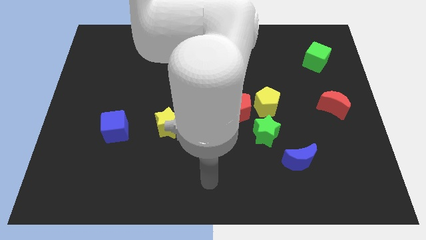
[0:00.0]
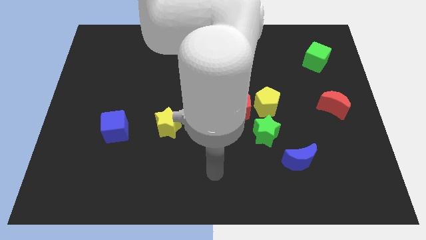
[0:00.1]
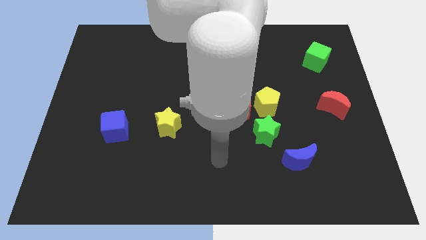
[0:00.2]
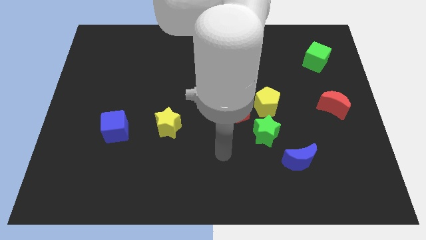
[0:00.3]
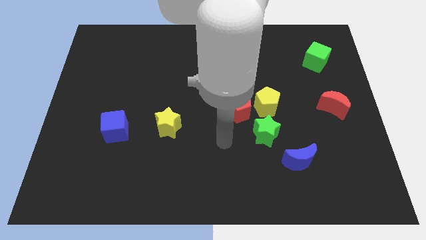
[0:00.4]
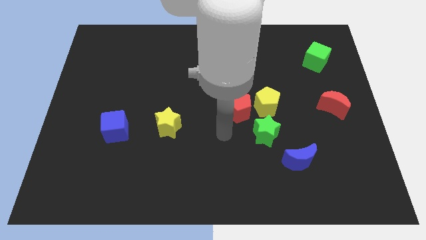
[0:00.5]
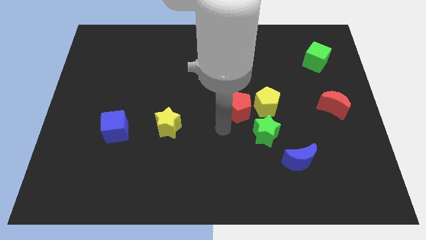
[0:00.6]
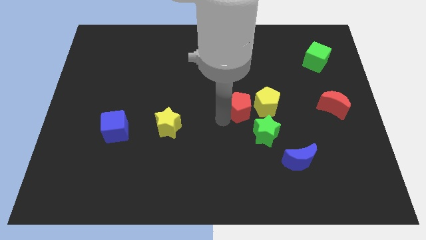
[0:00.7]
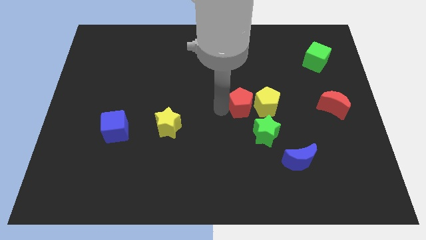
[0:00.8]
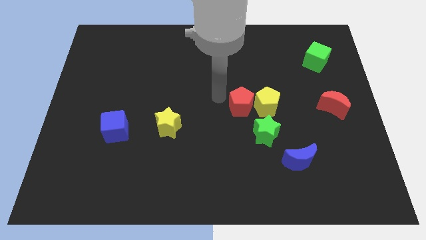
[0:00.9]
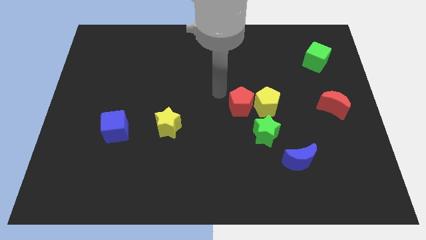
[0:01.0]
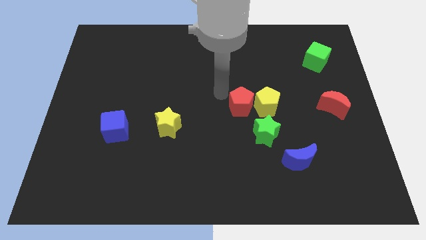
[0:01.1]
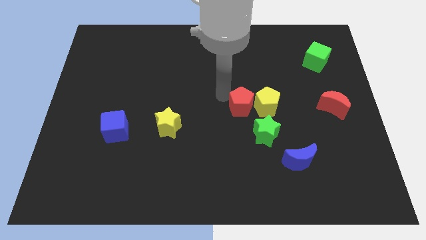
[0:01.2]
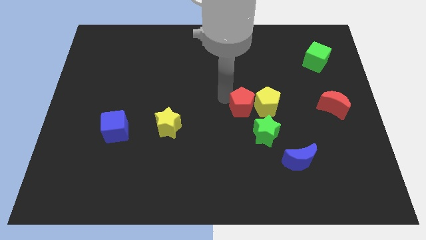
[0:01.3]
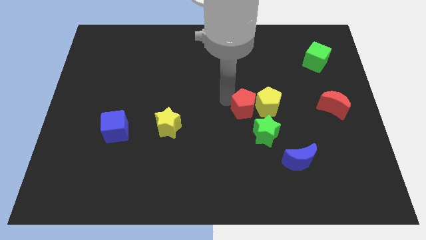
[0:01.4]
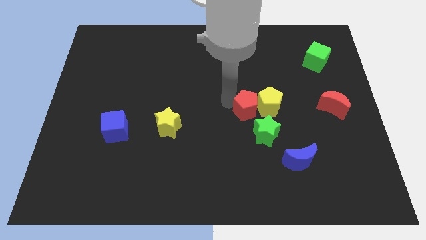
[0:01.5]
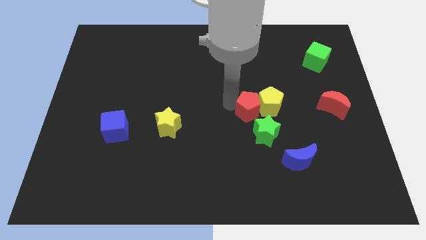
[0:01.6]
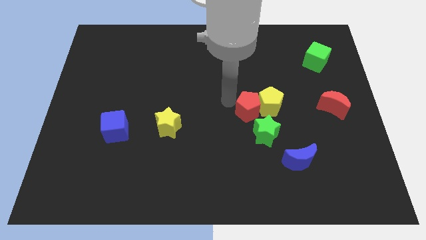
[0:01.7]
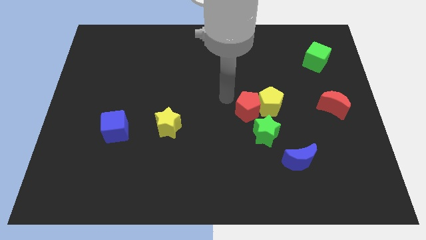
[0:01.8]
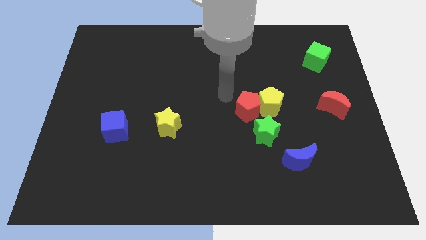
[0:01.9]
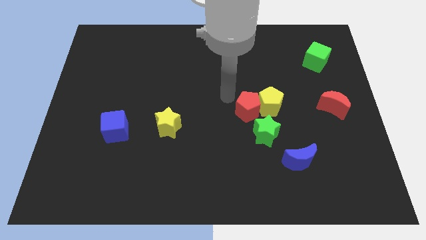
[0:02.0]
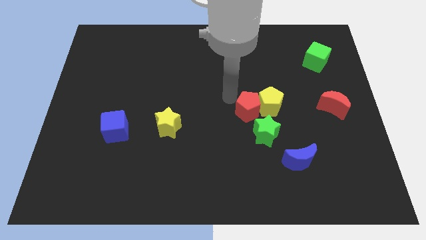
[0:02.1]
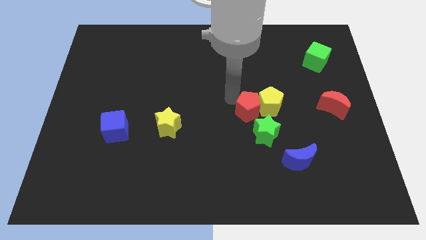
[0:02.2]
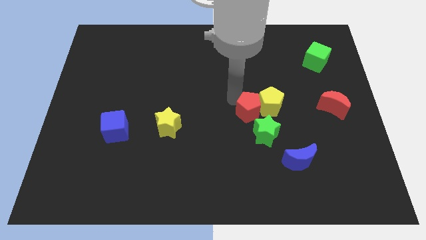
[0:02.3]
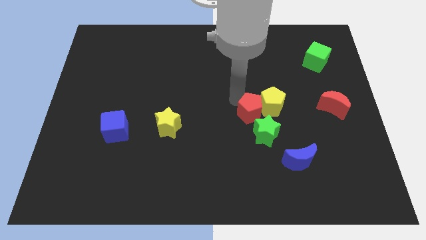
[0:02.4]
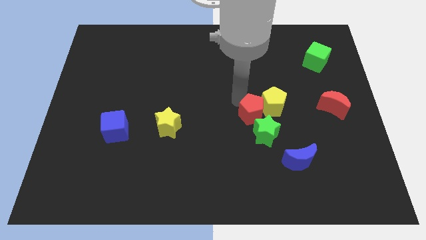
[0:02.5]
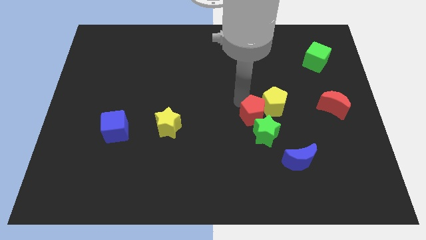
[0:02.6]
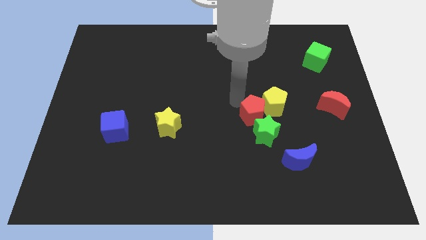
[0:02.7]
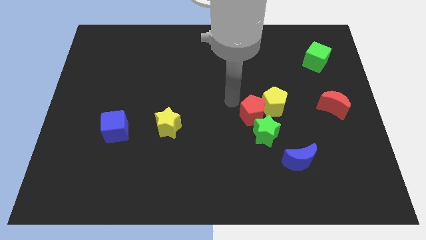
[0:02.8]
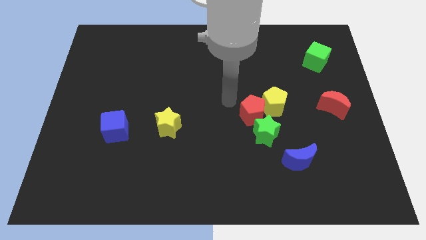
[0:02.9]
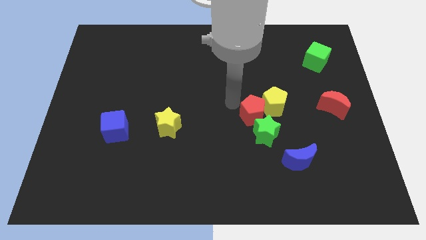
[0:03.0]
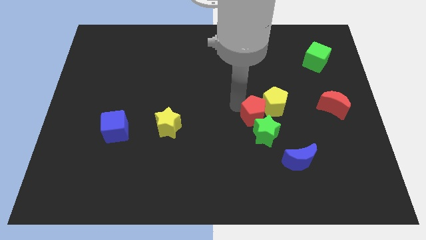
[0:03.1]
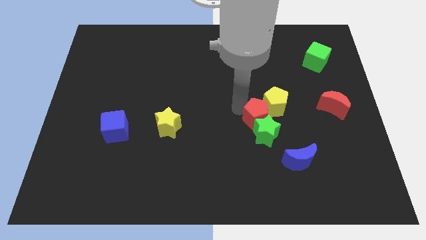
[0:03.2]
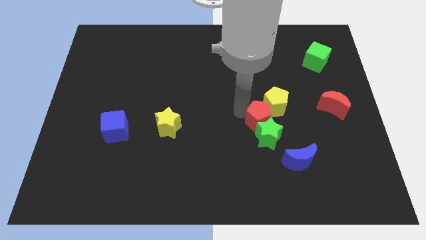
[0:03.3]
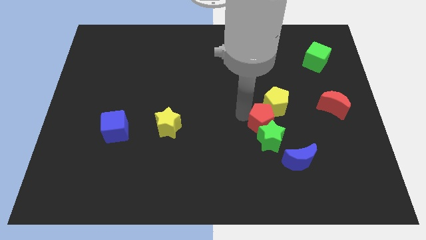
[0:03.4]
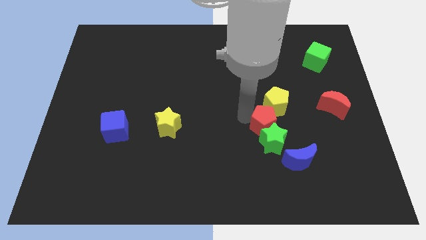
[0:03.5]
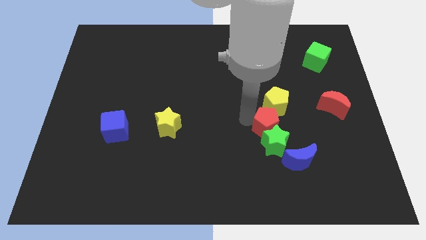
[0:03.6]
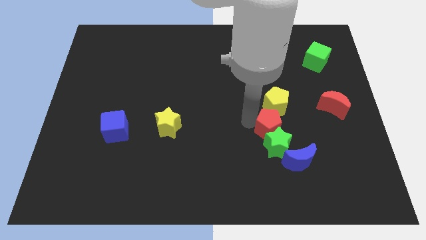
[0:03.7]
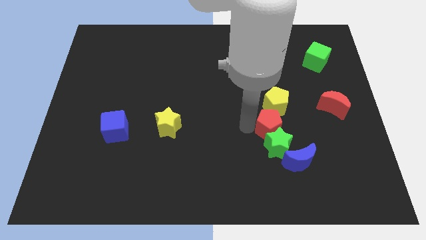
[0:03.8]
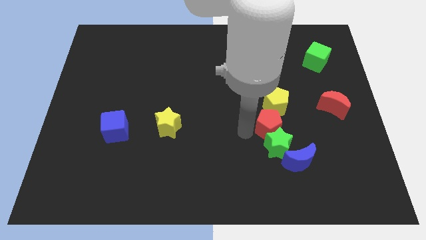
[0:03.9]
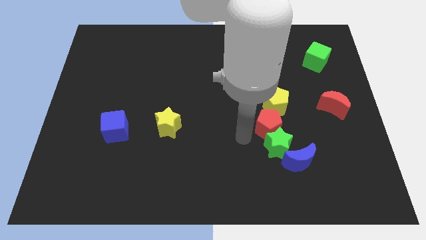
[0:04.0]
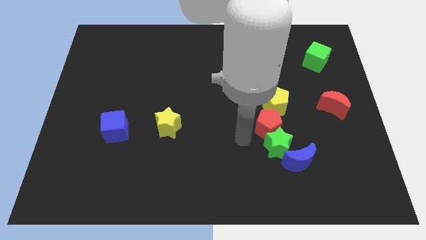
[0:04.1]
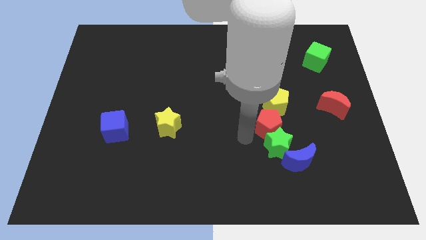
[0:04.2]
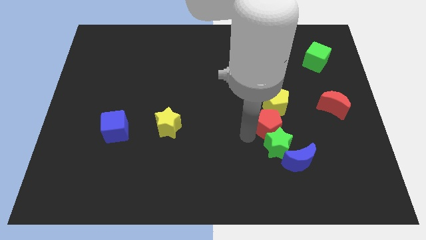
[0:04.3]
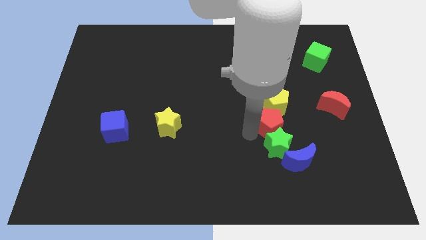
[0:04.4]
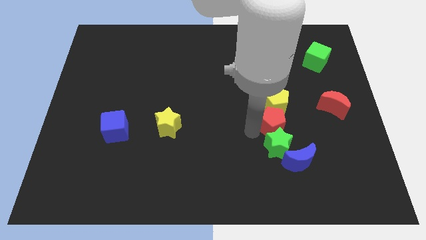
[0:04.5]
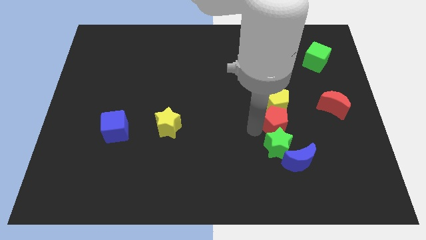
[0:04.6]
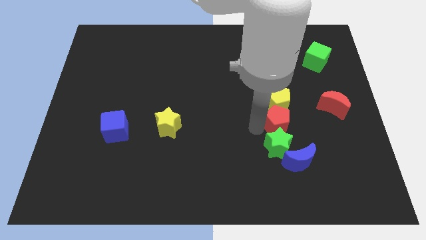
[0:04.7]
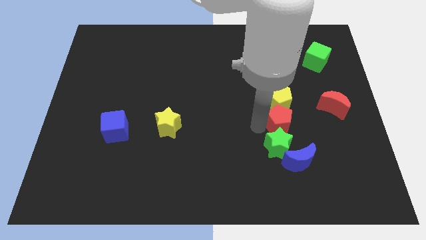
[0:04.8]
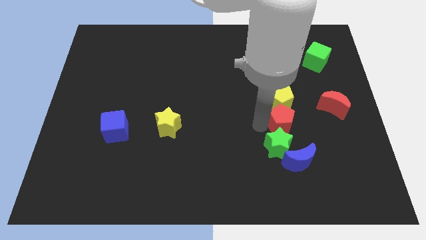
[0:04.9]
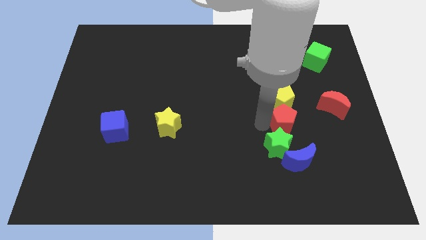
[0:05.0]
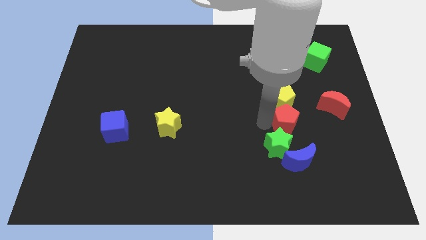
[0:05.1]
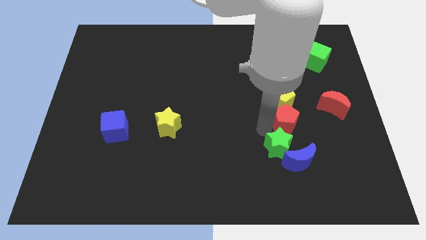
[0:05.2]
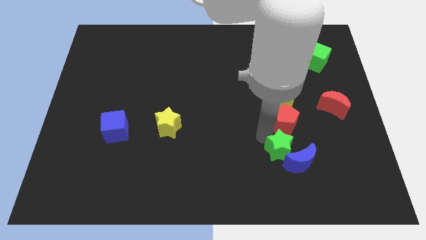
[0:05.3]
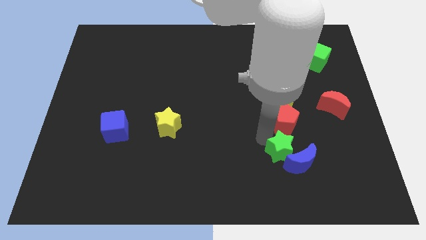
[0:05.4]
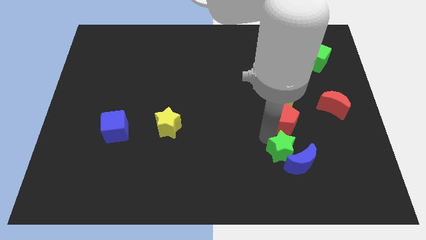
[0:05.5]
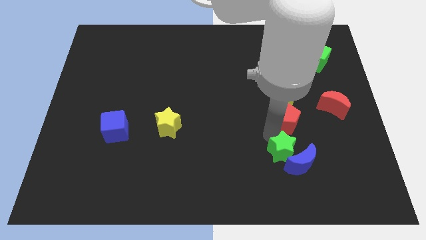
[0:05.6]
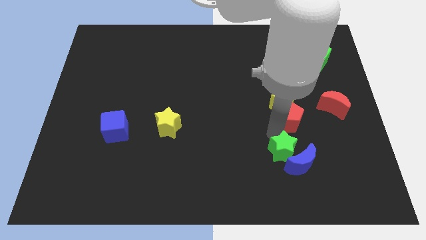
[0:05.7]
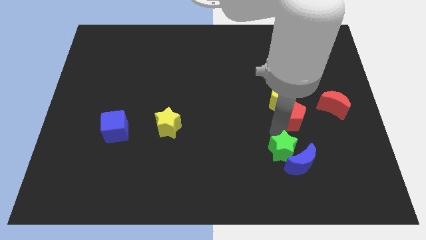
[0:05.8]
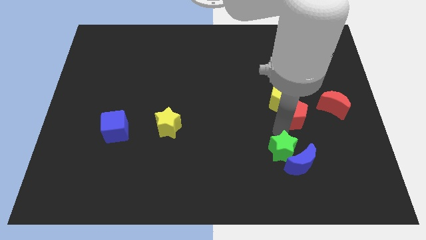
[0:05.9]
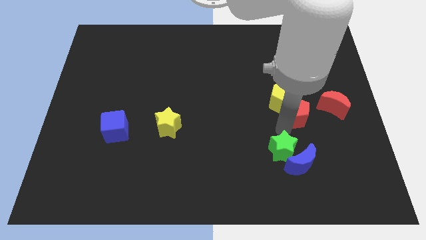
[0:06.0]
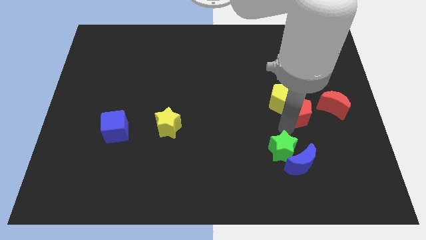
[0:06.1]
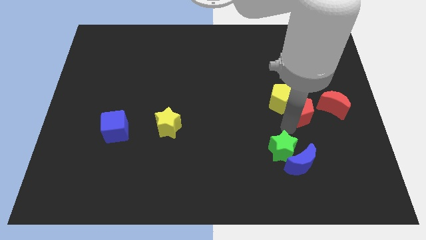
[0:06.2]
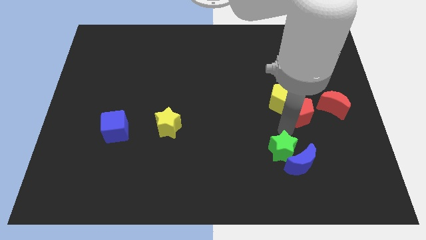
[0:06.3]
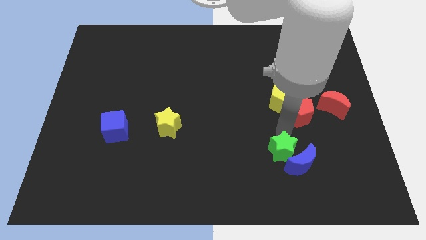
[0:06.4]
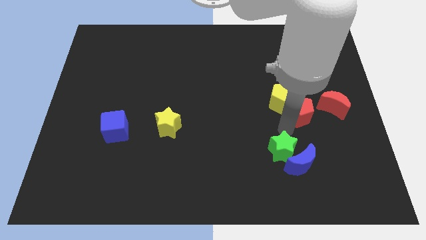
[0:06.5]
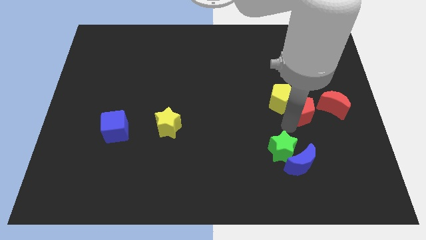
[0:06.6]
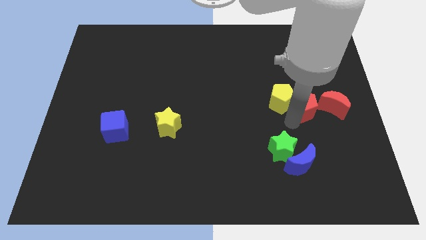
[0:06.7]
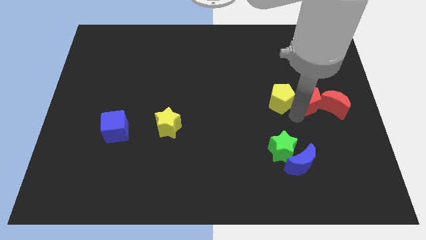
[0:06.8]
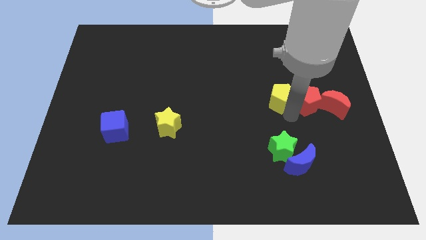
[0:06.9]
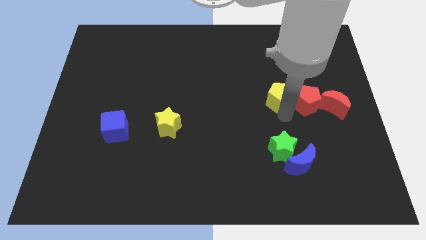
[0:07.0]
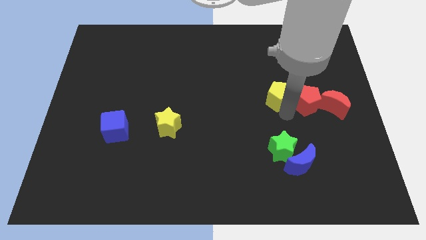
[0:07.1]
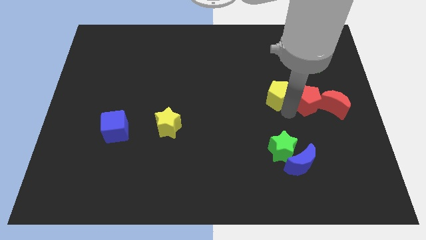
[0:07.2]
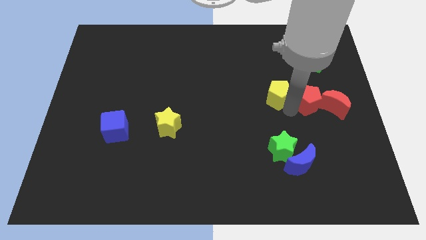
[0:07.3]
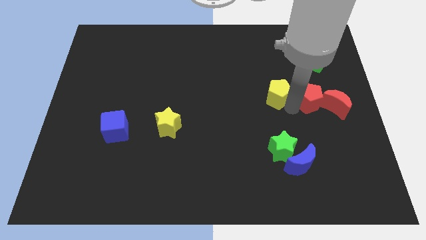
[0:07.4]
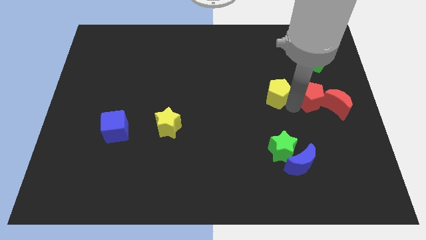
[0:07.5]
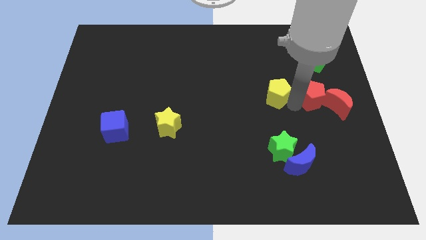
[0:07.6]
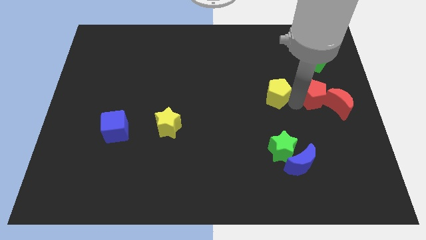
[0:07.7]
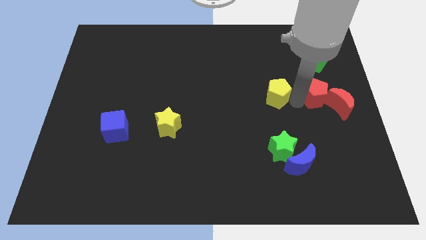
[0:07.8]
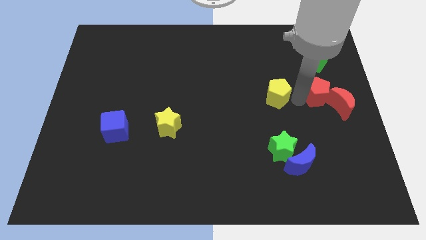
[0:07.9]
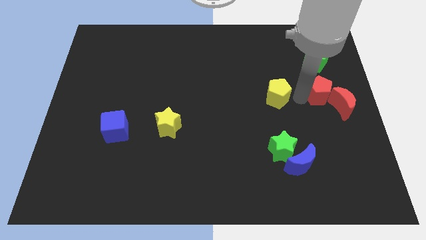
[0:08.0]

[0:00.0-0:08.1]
push the red pentagon to the right side
